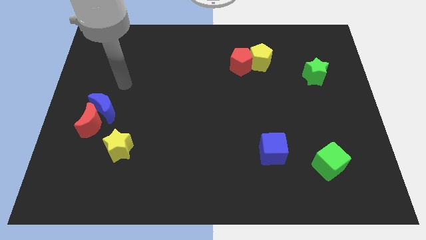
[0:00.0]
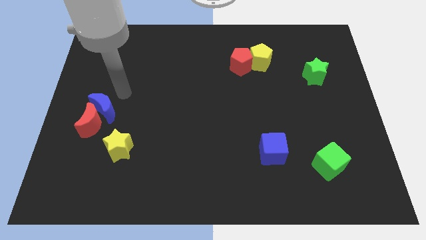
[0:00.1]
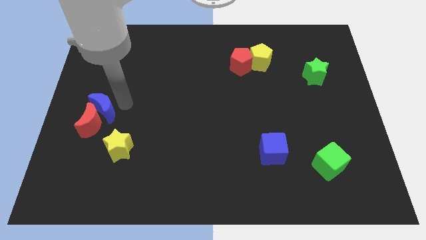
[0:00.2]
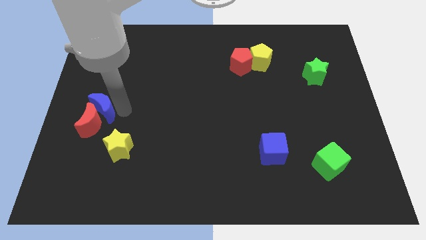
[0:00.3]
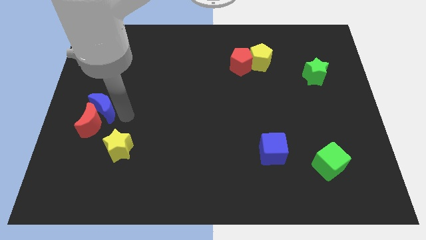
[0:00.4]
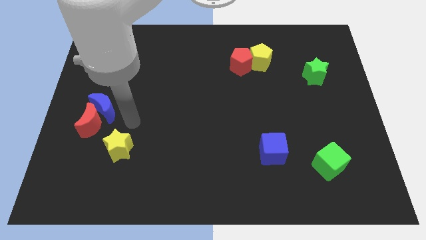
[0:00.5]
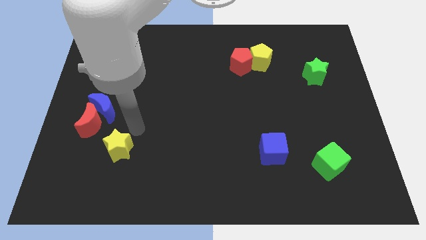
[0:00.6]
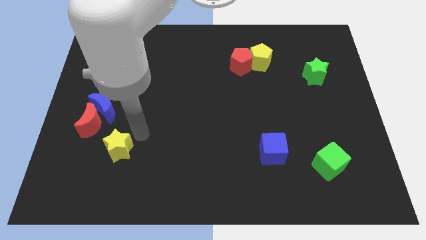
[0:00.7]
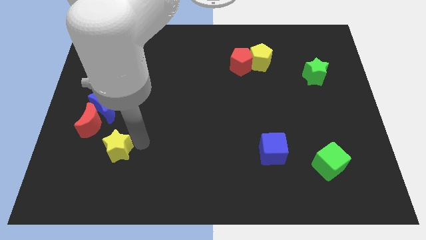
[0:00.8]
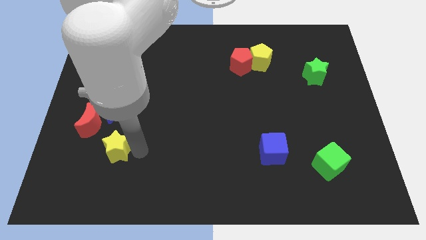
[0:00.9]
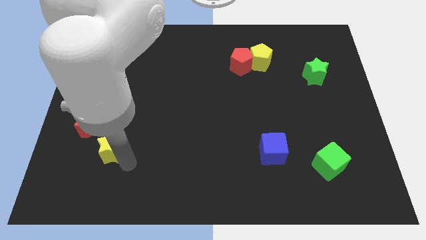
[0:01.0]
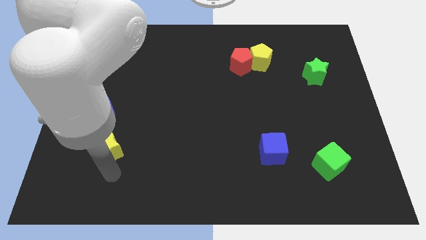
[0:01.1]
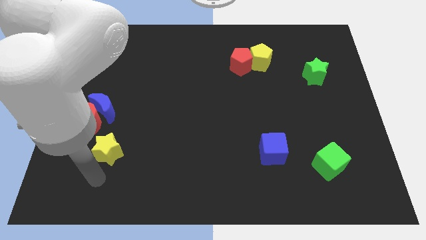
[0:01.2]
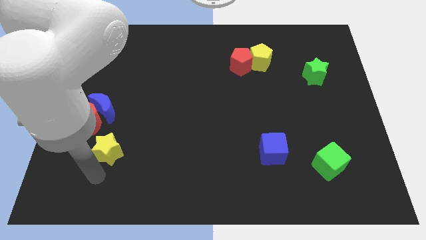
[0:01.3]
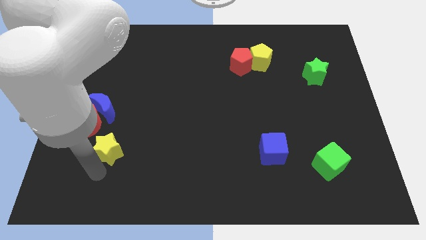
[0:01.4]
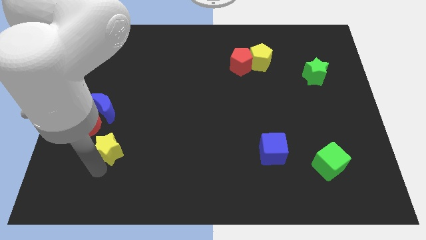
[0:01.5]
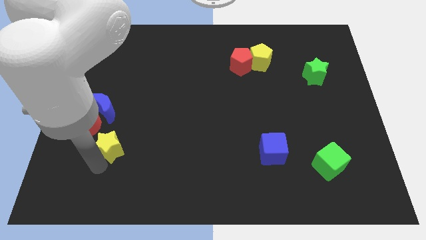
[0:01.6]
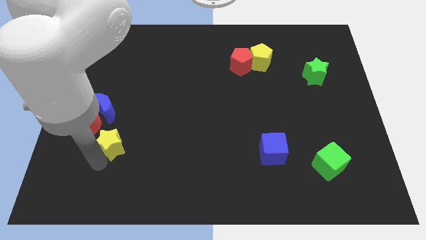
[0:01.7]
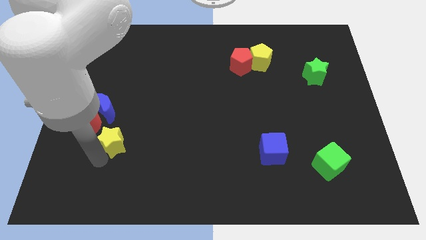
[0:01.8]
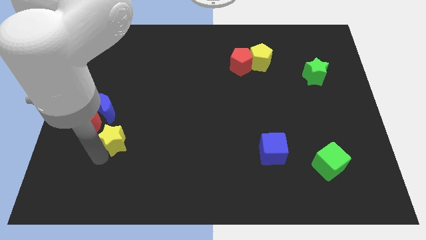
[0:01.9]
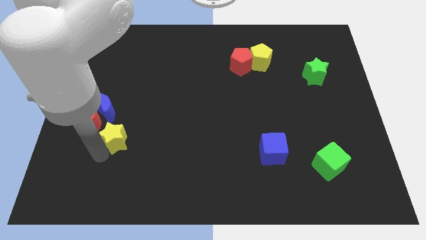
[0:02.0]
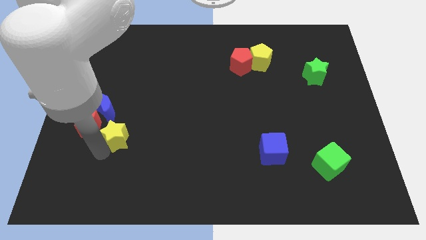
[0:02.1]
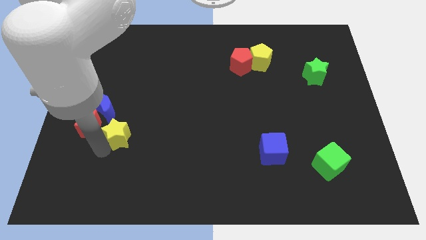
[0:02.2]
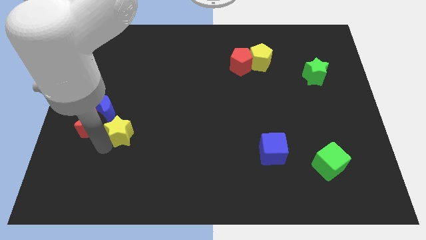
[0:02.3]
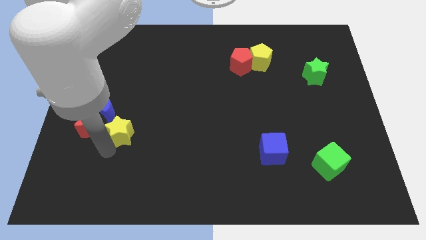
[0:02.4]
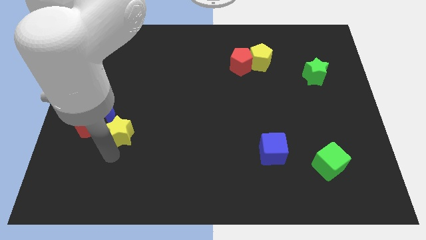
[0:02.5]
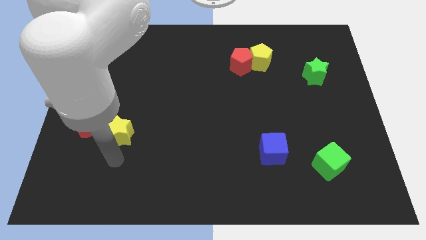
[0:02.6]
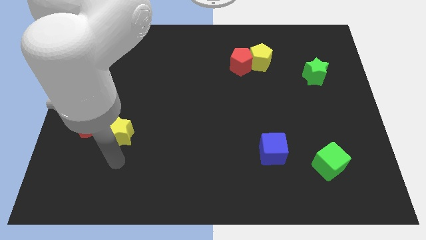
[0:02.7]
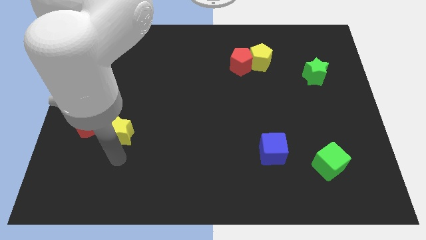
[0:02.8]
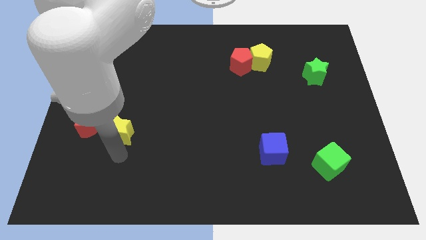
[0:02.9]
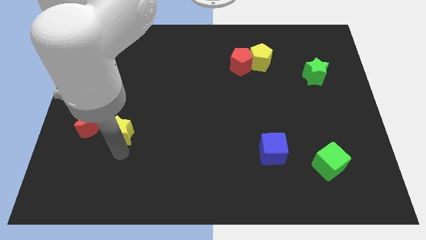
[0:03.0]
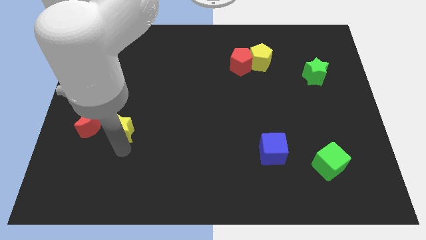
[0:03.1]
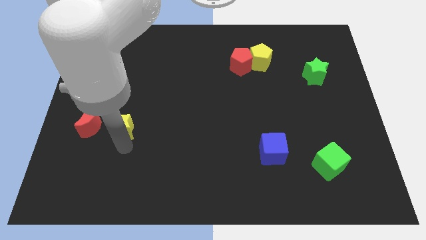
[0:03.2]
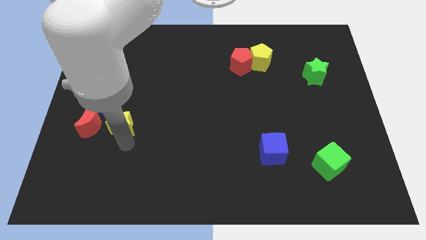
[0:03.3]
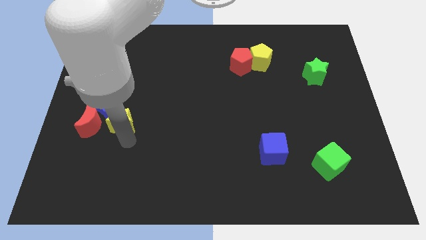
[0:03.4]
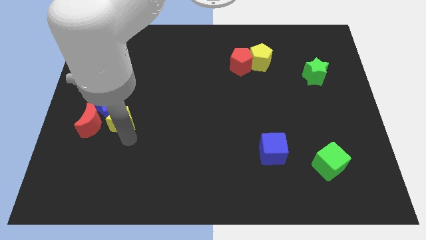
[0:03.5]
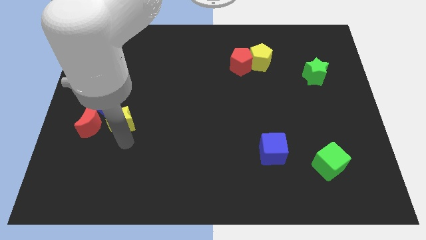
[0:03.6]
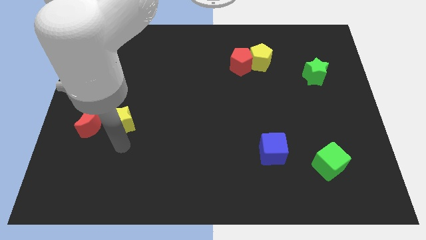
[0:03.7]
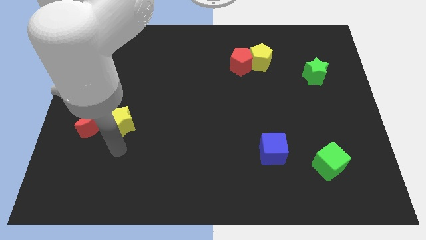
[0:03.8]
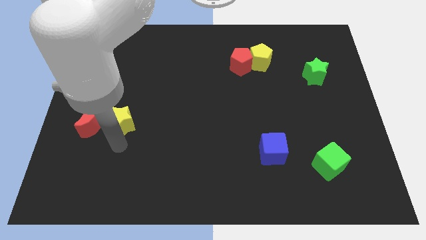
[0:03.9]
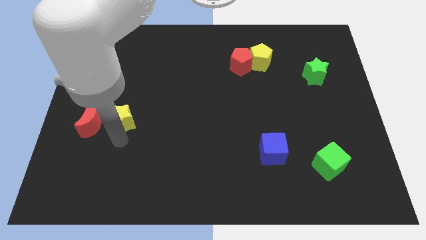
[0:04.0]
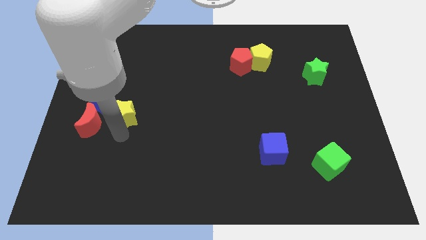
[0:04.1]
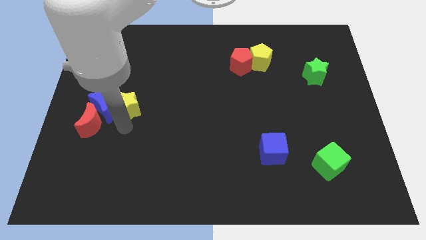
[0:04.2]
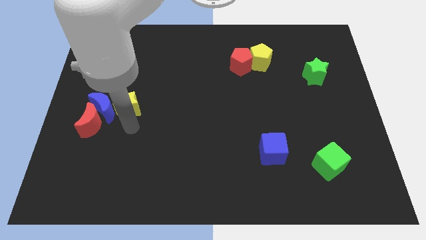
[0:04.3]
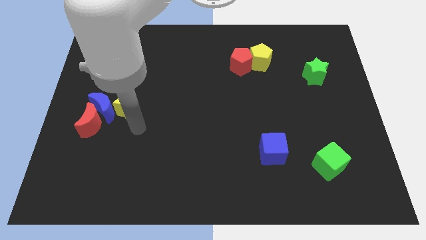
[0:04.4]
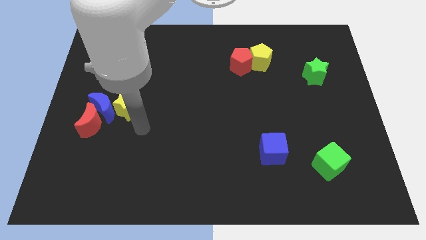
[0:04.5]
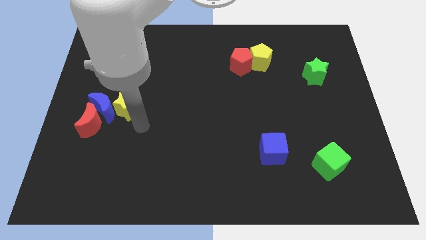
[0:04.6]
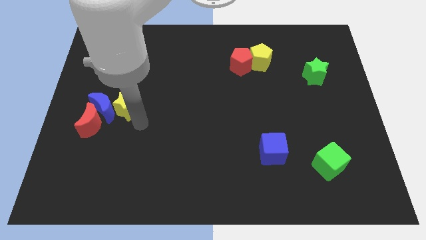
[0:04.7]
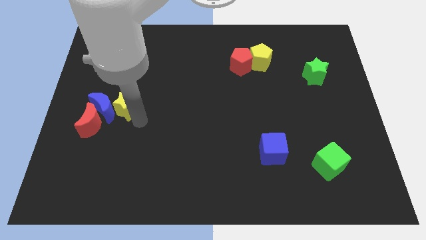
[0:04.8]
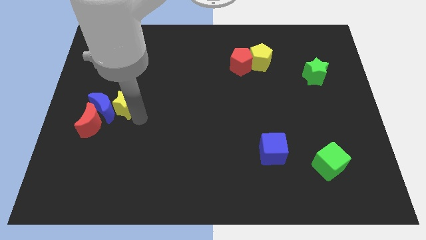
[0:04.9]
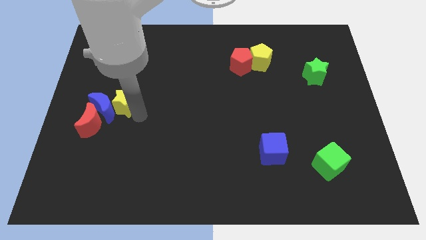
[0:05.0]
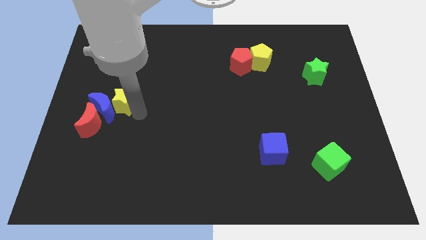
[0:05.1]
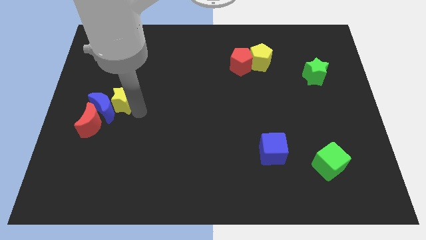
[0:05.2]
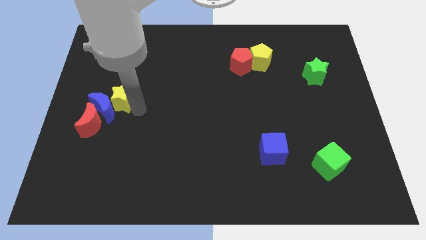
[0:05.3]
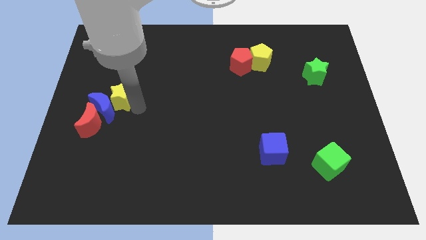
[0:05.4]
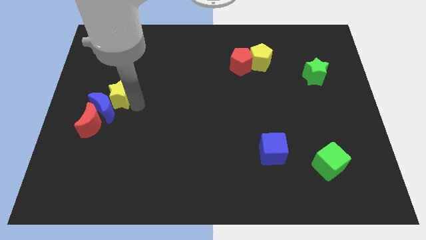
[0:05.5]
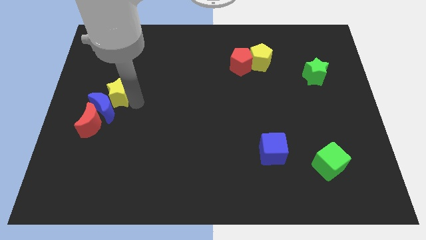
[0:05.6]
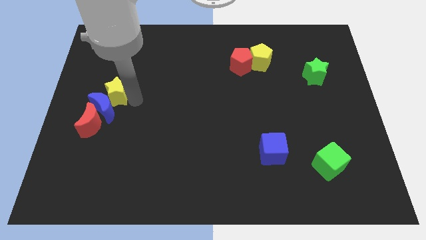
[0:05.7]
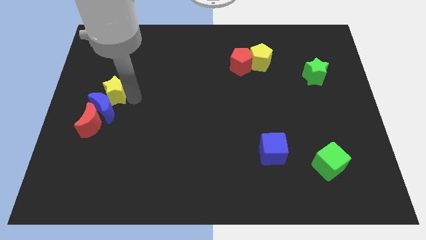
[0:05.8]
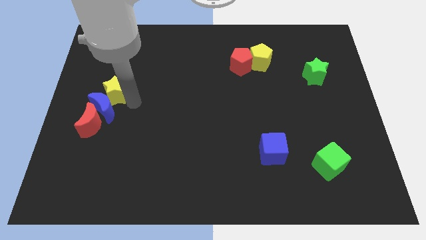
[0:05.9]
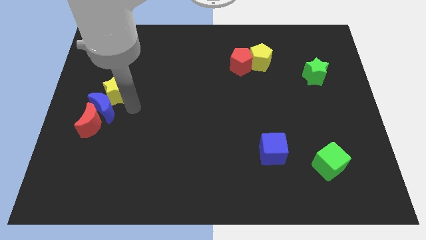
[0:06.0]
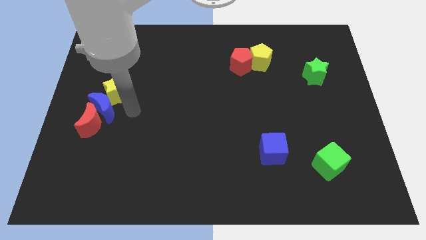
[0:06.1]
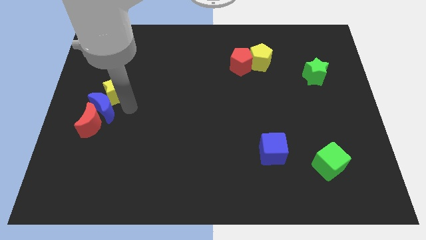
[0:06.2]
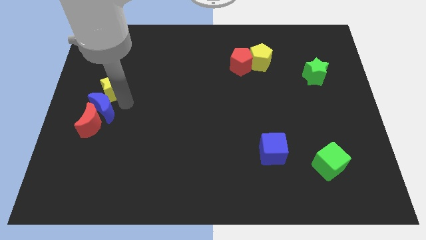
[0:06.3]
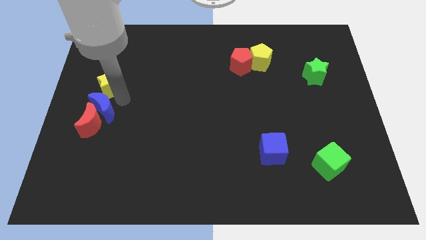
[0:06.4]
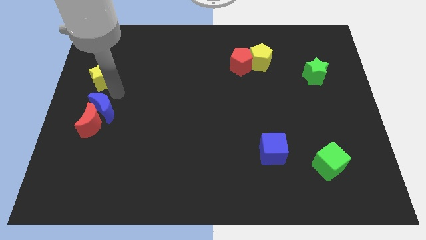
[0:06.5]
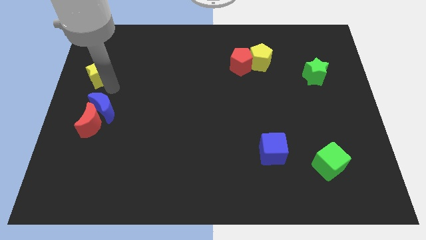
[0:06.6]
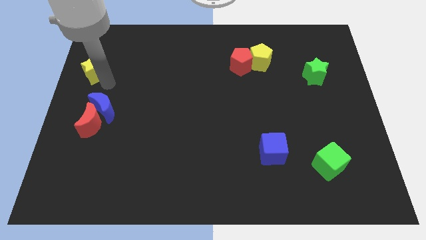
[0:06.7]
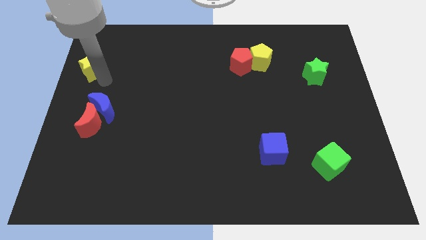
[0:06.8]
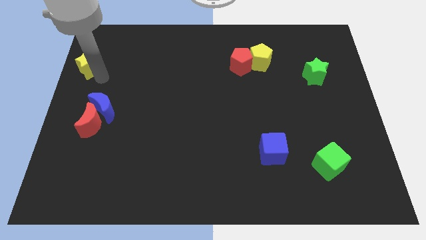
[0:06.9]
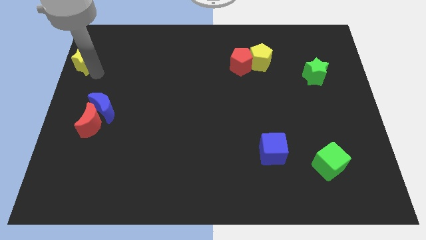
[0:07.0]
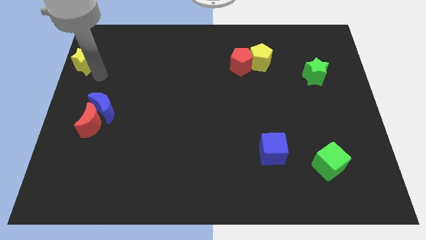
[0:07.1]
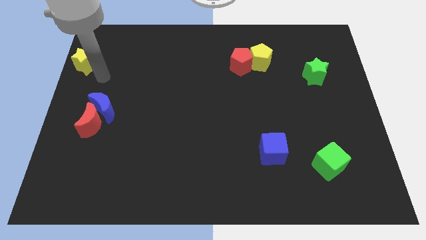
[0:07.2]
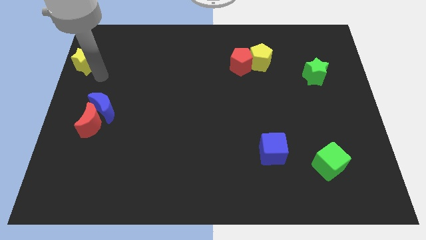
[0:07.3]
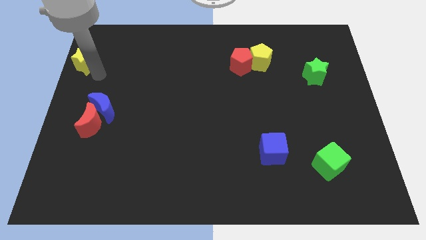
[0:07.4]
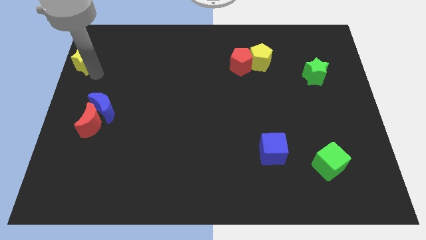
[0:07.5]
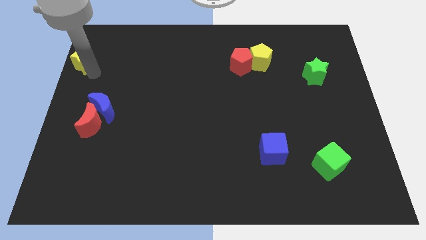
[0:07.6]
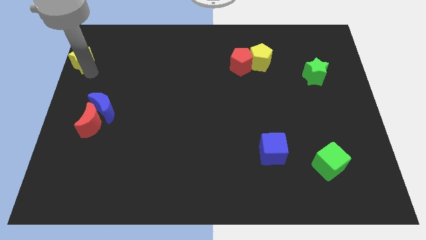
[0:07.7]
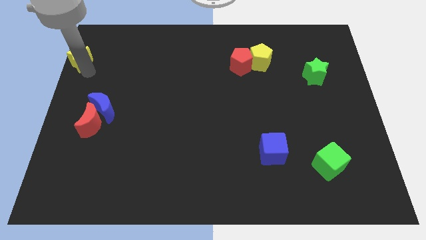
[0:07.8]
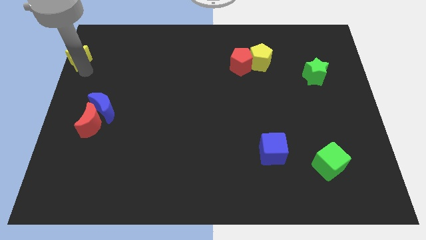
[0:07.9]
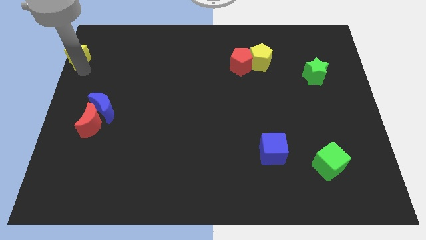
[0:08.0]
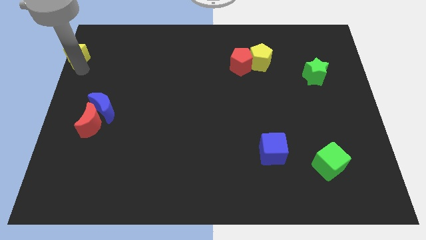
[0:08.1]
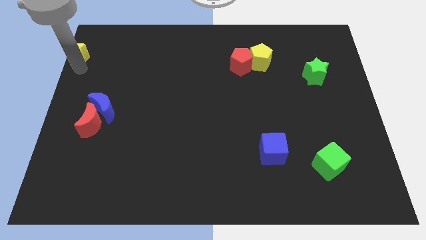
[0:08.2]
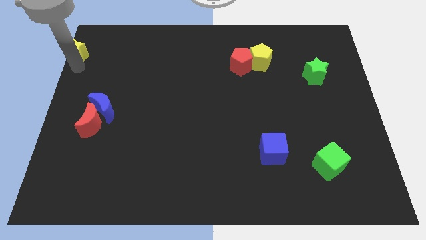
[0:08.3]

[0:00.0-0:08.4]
push the yellow star to the top left corner
